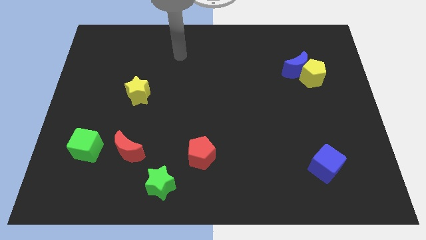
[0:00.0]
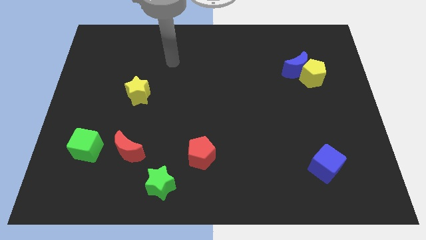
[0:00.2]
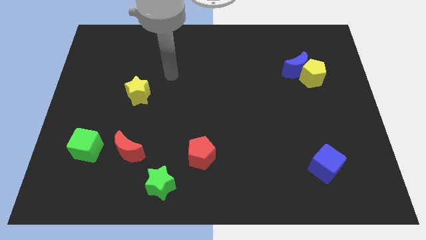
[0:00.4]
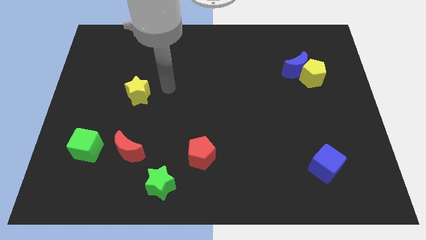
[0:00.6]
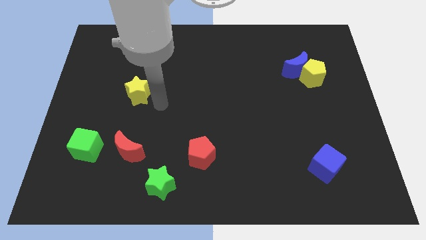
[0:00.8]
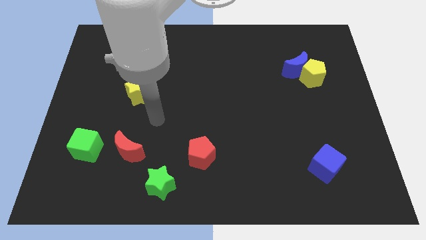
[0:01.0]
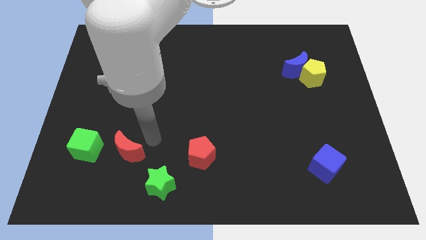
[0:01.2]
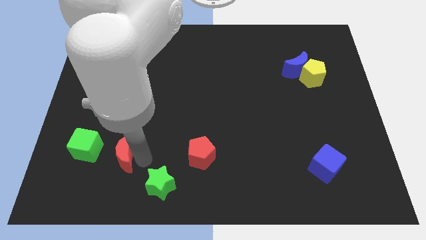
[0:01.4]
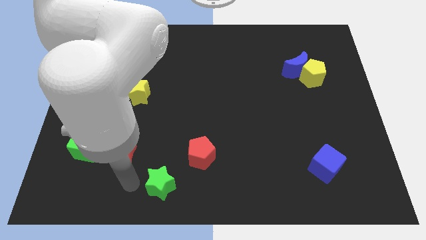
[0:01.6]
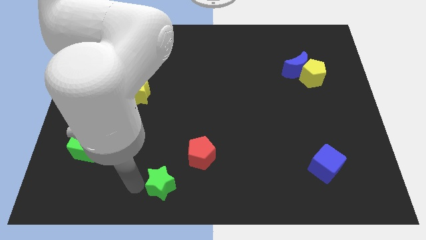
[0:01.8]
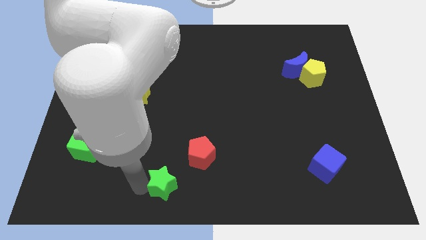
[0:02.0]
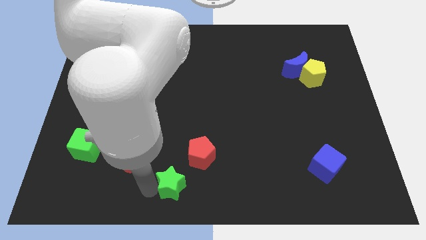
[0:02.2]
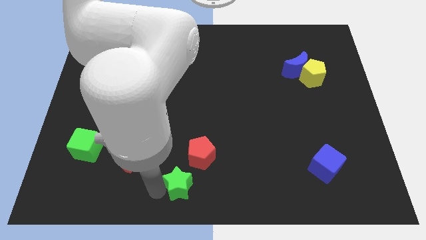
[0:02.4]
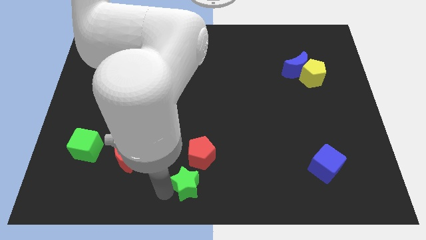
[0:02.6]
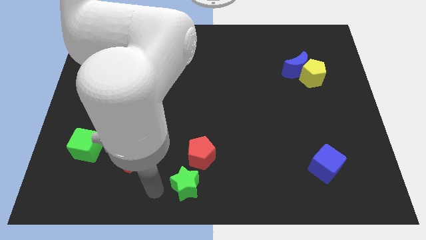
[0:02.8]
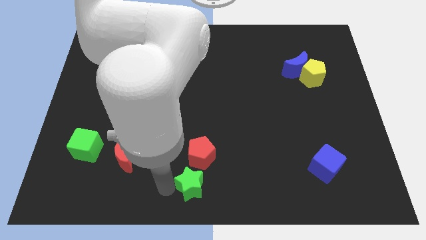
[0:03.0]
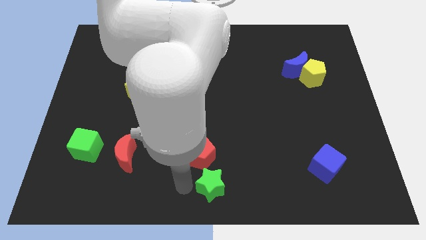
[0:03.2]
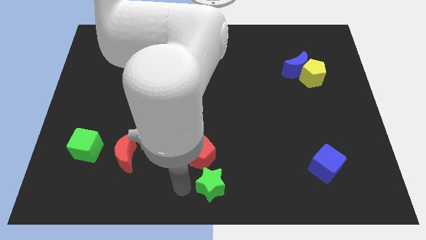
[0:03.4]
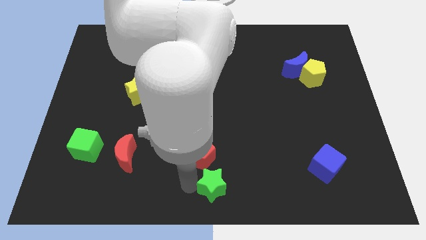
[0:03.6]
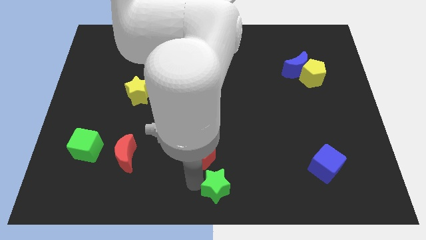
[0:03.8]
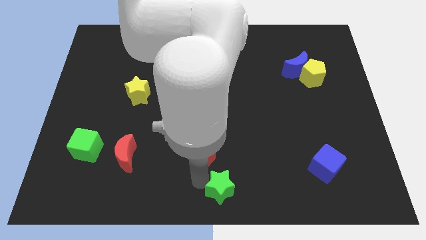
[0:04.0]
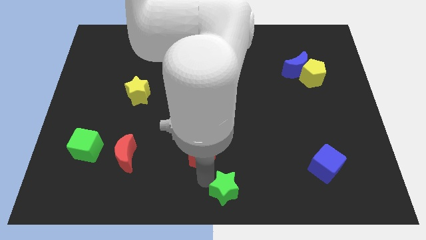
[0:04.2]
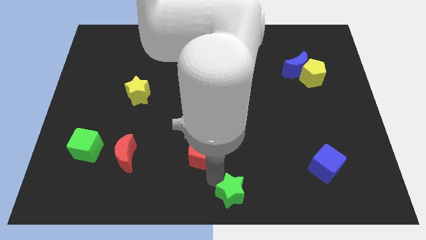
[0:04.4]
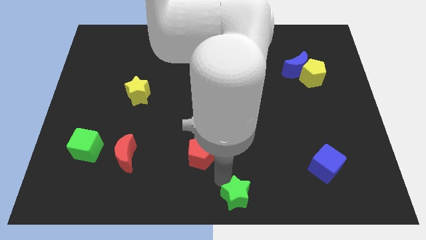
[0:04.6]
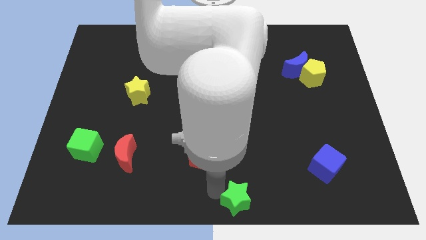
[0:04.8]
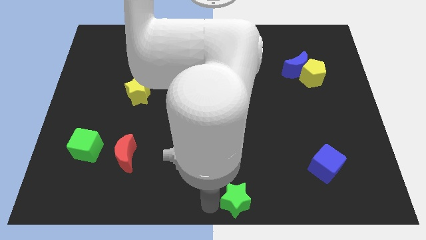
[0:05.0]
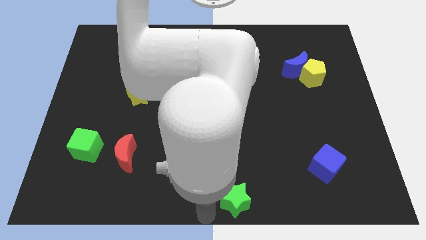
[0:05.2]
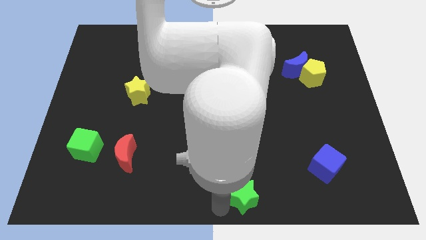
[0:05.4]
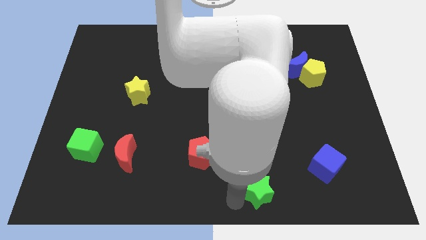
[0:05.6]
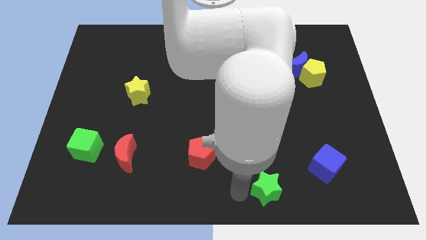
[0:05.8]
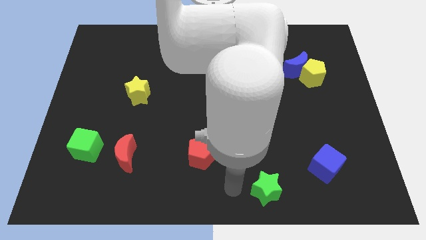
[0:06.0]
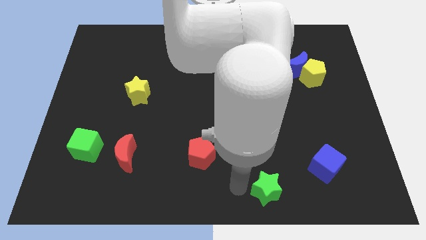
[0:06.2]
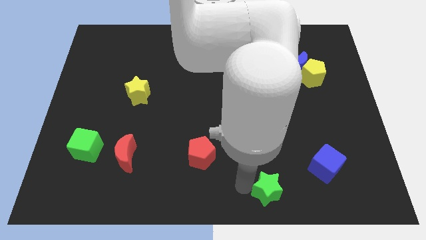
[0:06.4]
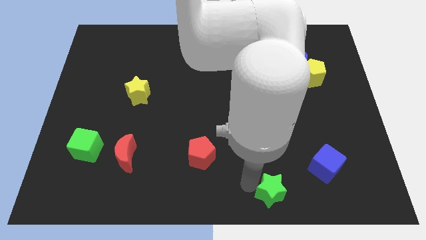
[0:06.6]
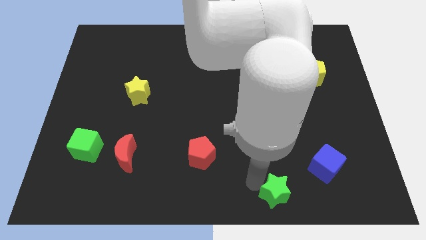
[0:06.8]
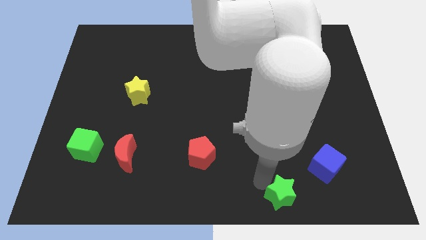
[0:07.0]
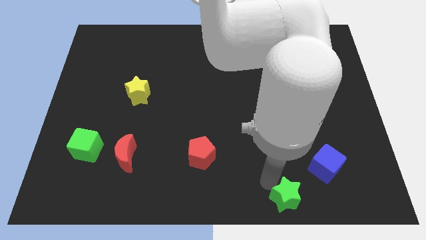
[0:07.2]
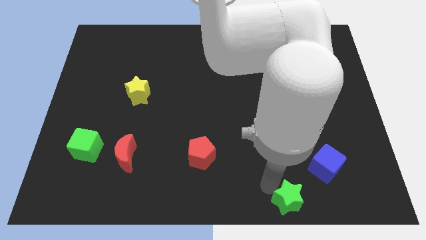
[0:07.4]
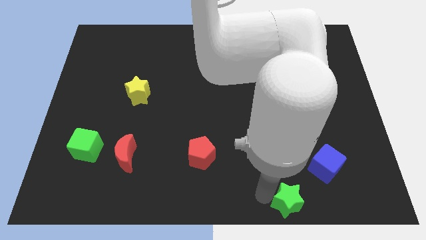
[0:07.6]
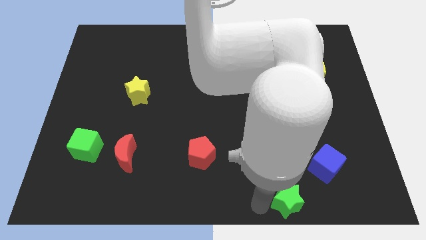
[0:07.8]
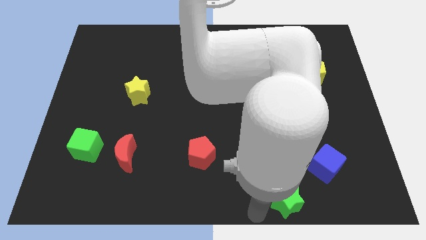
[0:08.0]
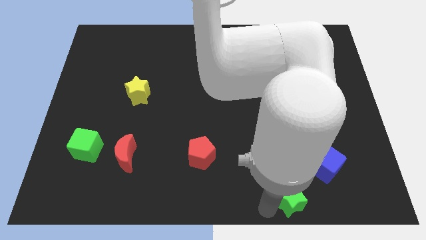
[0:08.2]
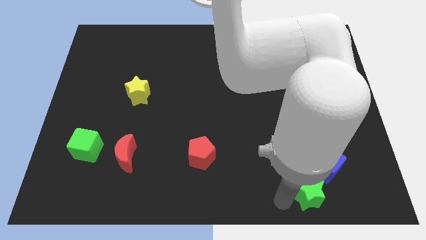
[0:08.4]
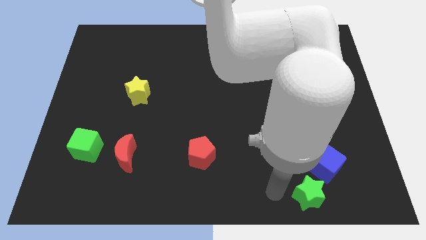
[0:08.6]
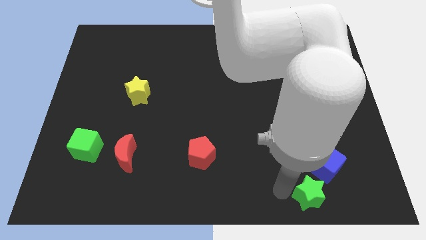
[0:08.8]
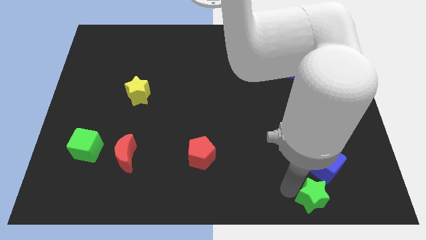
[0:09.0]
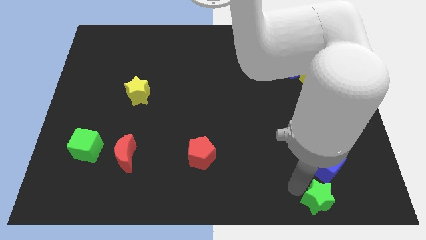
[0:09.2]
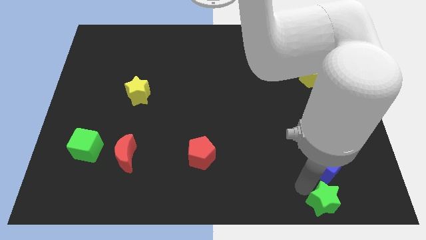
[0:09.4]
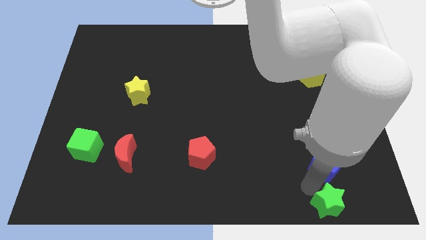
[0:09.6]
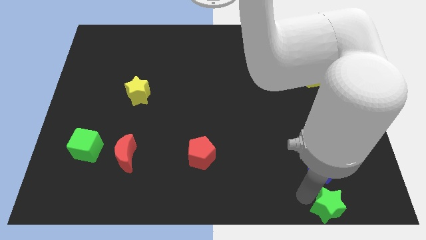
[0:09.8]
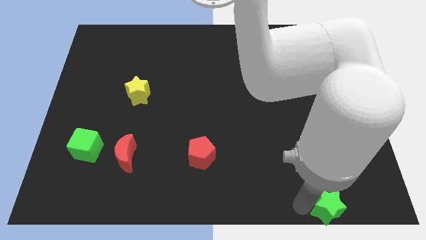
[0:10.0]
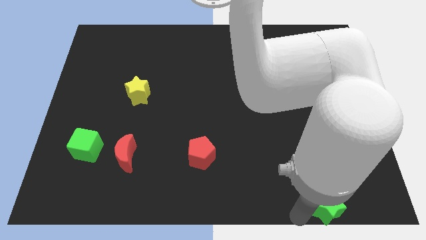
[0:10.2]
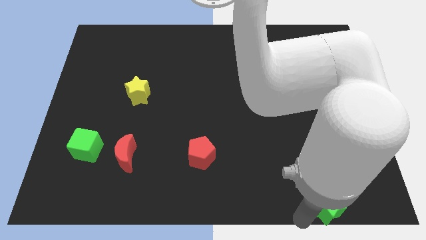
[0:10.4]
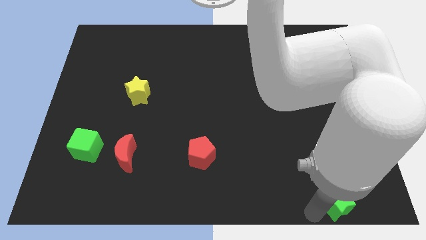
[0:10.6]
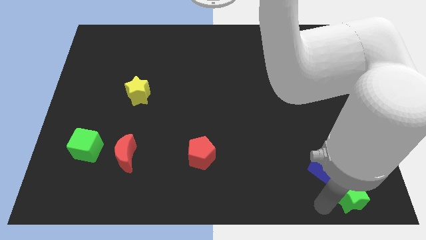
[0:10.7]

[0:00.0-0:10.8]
move the green star to the bottom right

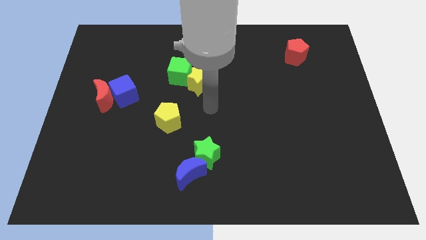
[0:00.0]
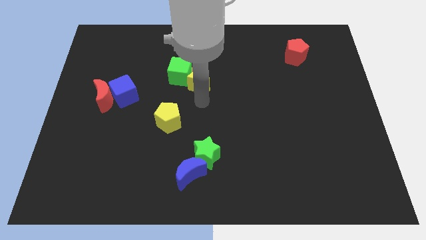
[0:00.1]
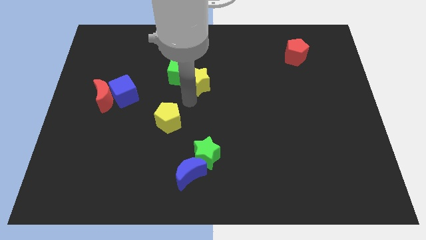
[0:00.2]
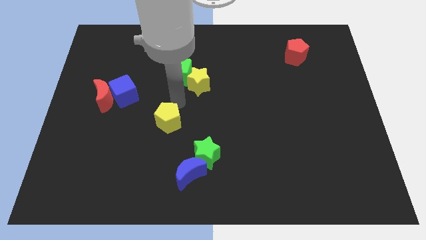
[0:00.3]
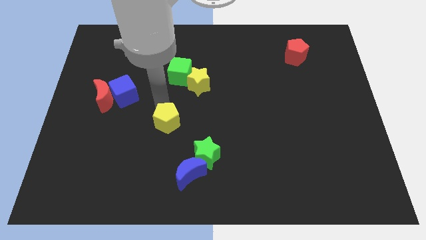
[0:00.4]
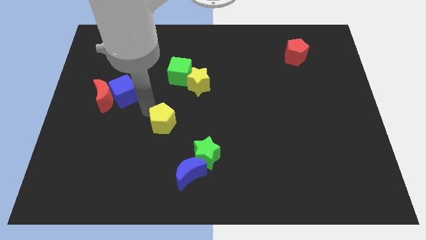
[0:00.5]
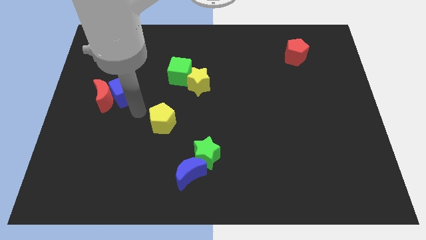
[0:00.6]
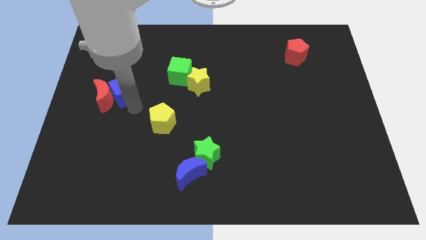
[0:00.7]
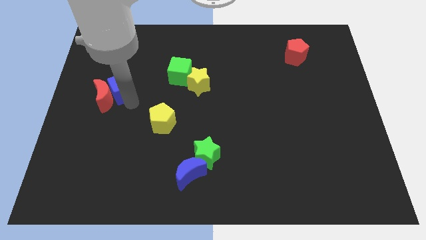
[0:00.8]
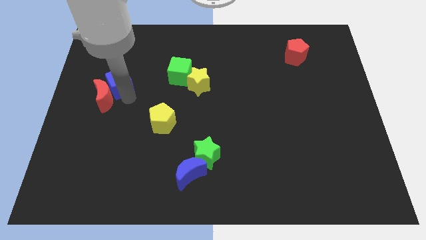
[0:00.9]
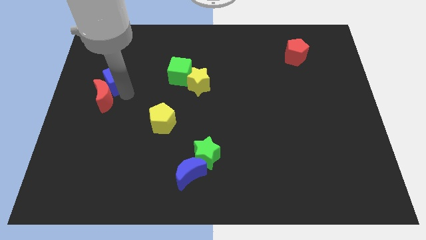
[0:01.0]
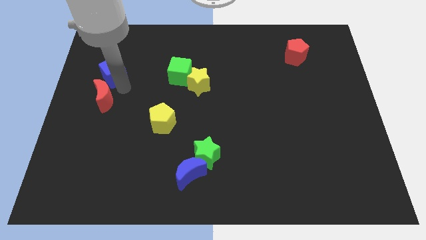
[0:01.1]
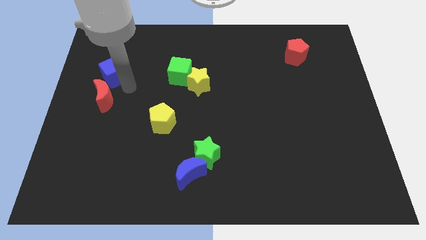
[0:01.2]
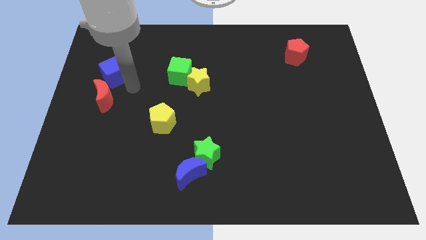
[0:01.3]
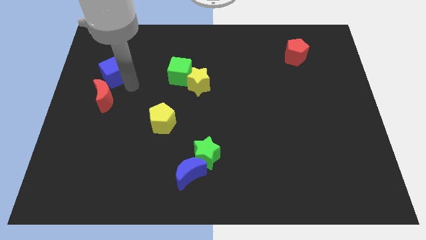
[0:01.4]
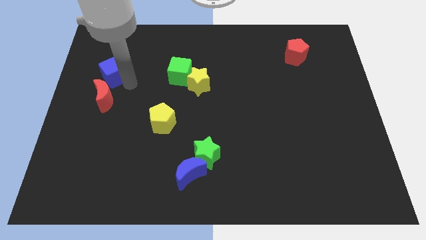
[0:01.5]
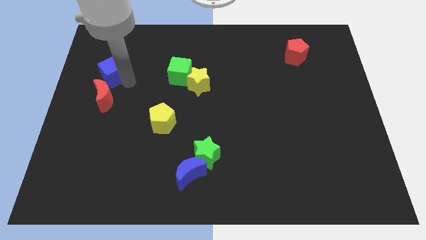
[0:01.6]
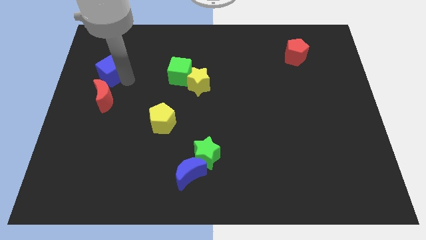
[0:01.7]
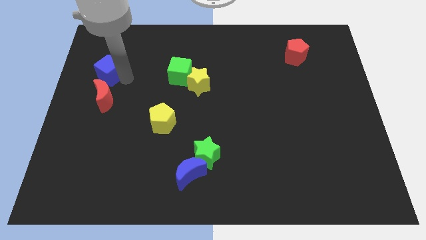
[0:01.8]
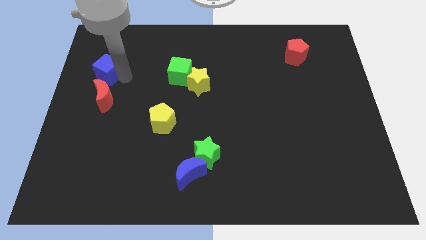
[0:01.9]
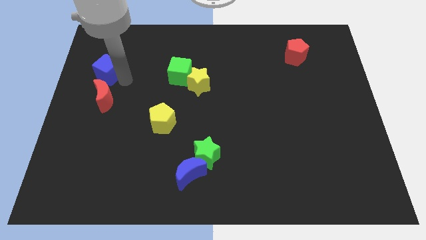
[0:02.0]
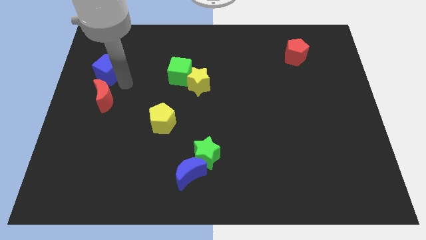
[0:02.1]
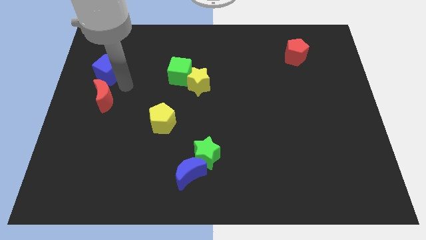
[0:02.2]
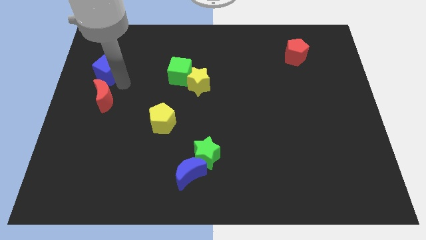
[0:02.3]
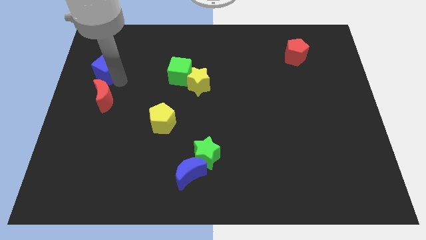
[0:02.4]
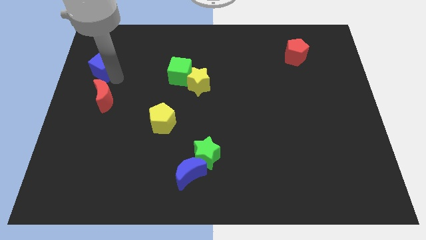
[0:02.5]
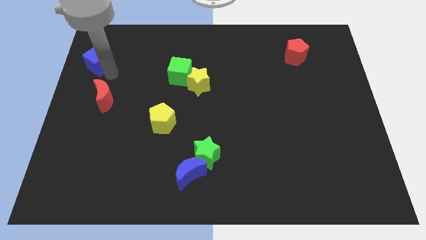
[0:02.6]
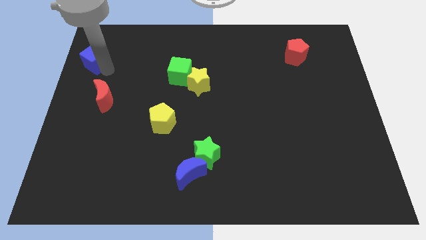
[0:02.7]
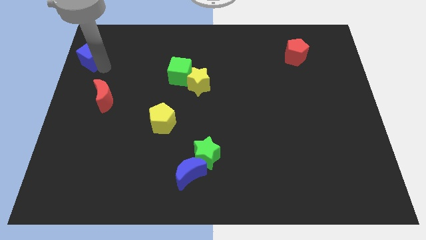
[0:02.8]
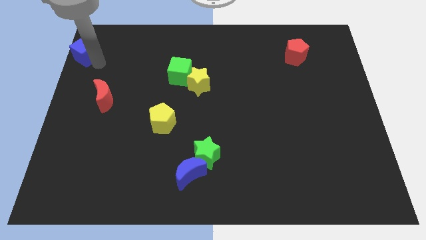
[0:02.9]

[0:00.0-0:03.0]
slide the blue cube to the top left
